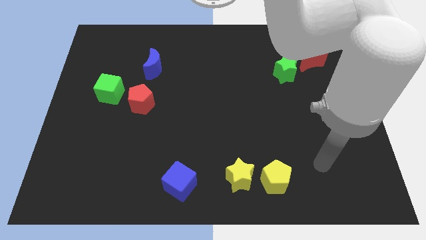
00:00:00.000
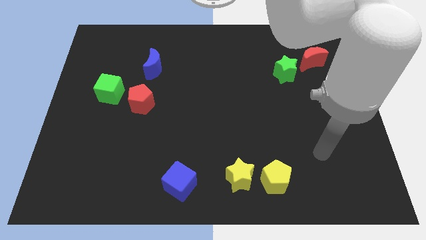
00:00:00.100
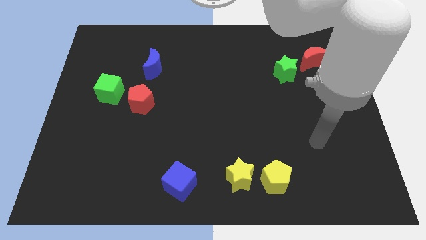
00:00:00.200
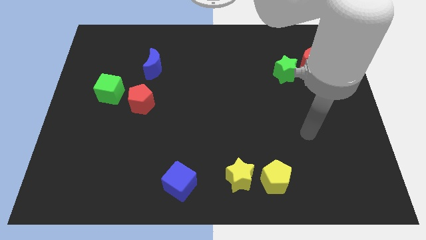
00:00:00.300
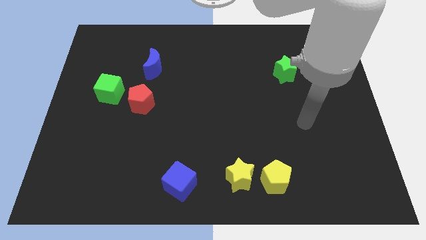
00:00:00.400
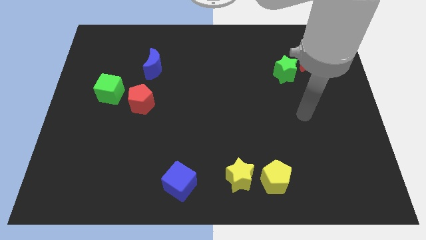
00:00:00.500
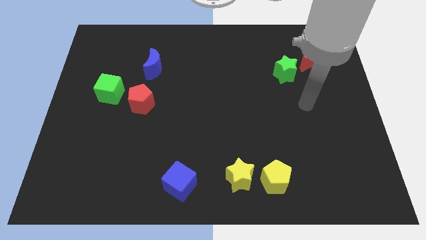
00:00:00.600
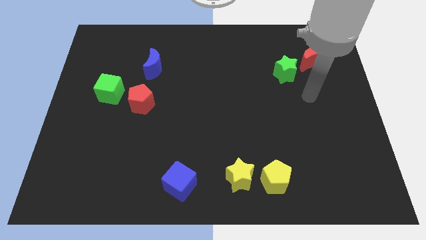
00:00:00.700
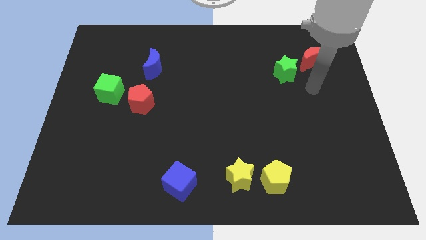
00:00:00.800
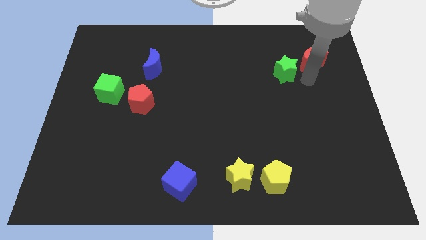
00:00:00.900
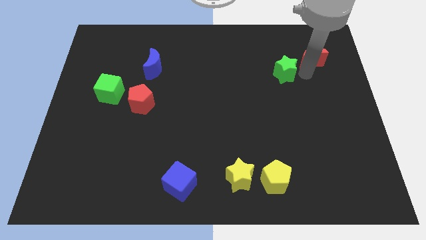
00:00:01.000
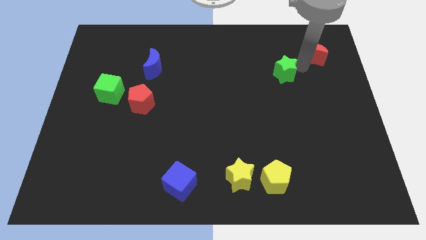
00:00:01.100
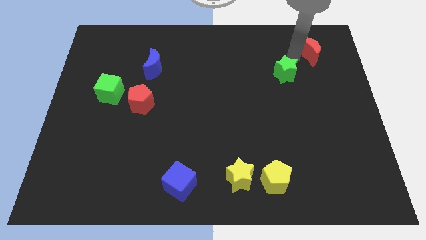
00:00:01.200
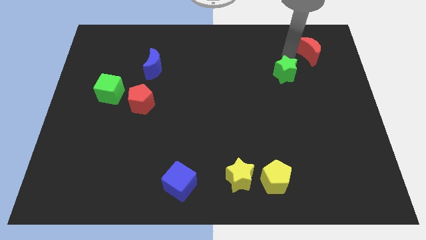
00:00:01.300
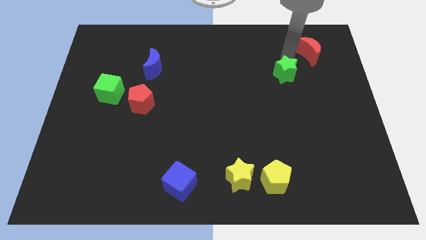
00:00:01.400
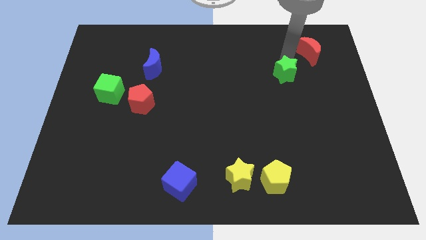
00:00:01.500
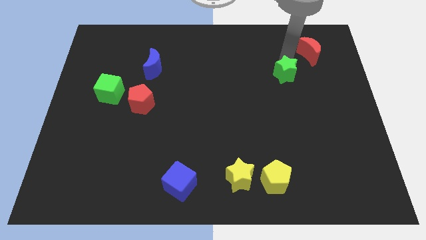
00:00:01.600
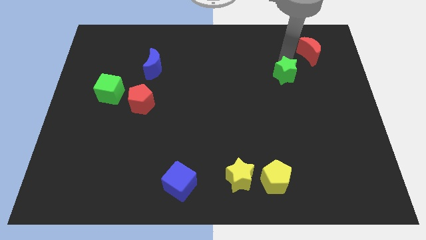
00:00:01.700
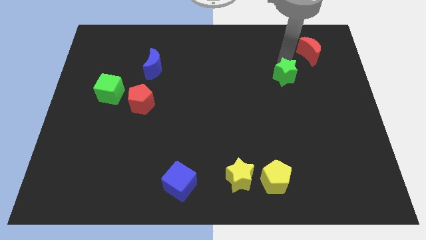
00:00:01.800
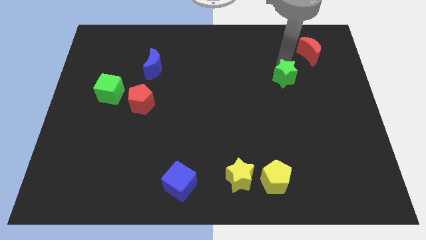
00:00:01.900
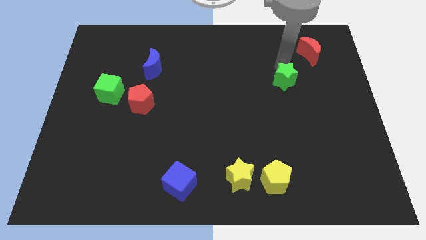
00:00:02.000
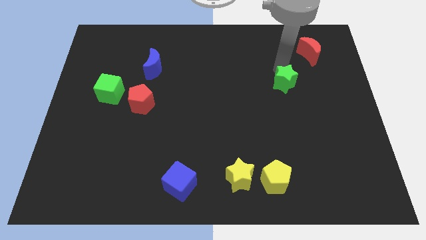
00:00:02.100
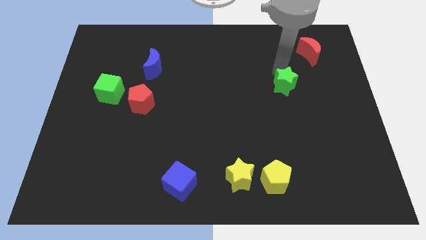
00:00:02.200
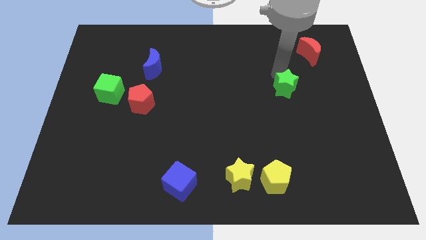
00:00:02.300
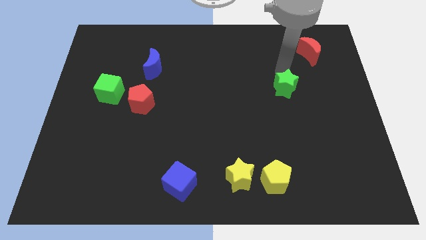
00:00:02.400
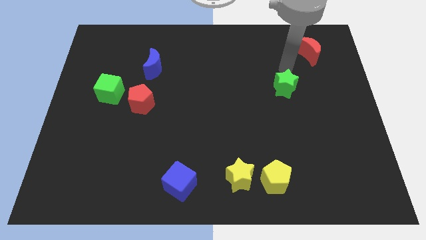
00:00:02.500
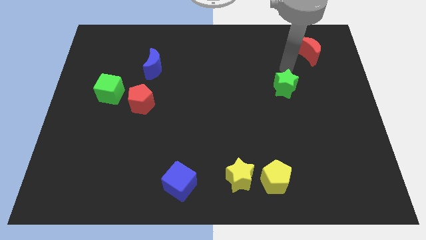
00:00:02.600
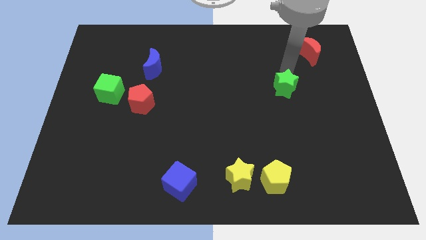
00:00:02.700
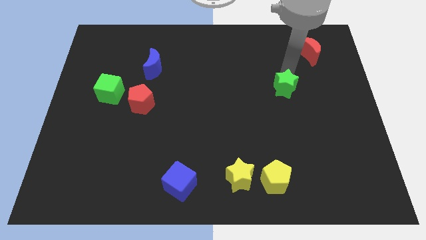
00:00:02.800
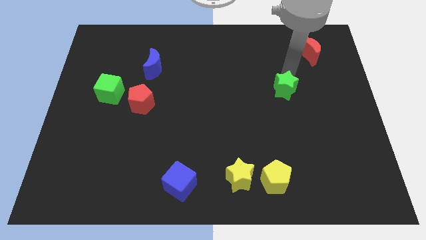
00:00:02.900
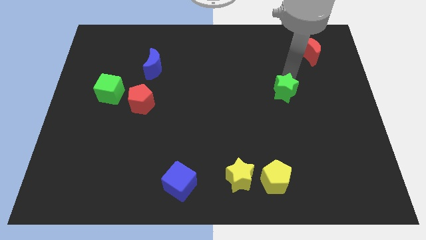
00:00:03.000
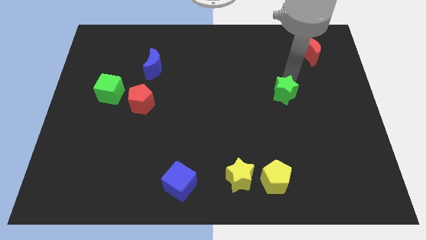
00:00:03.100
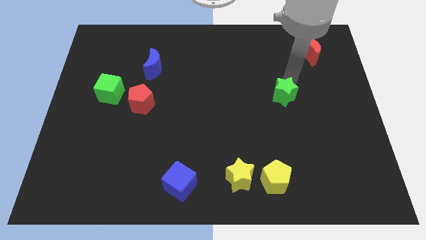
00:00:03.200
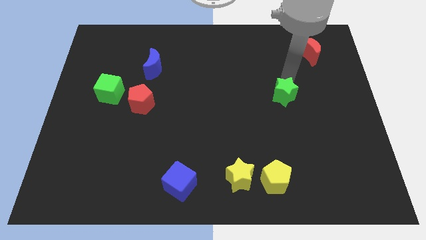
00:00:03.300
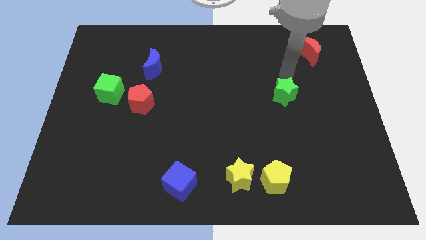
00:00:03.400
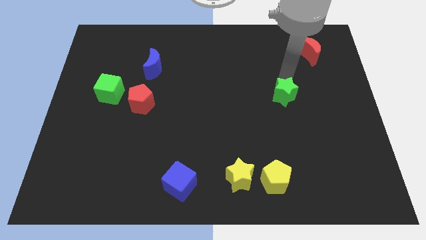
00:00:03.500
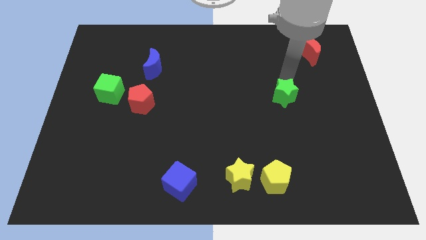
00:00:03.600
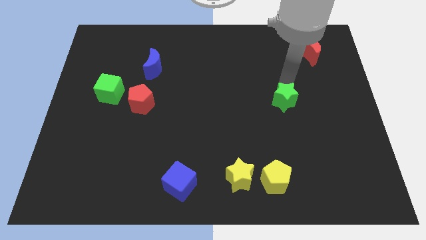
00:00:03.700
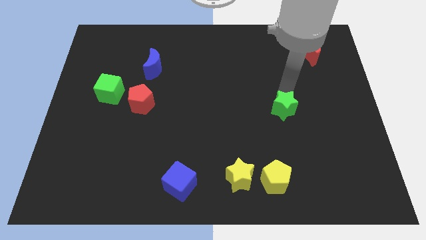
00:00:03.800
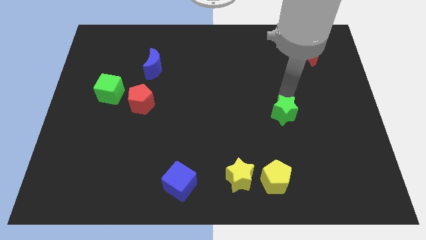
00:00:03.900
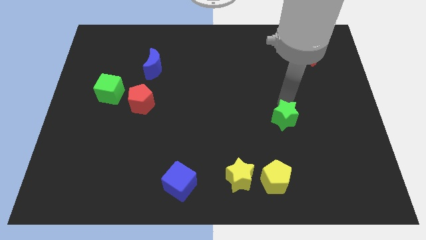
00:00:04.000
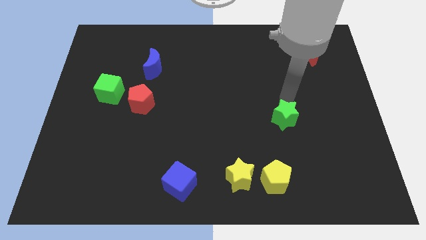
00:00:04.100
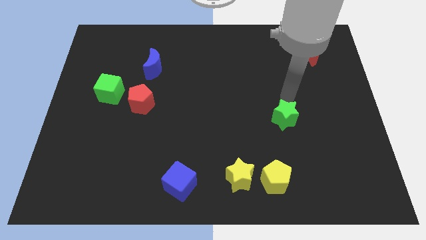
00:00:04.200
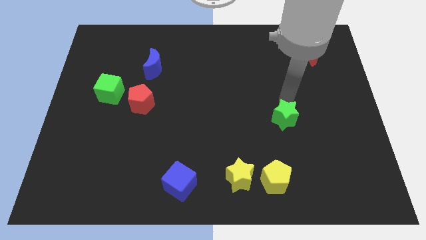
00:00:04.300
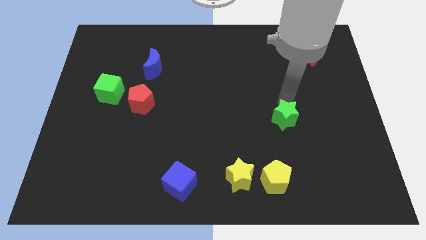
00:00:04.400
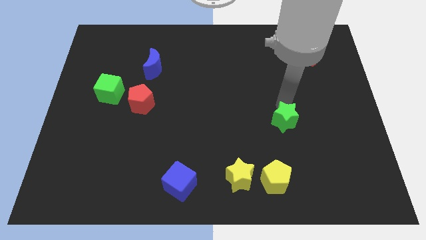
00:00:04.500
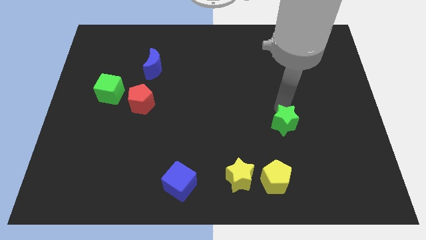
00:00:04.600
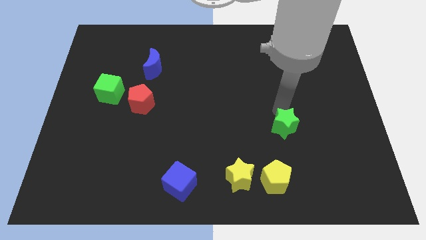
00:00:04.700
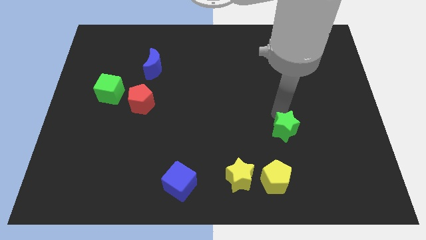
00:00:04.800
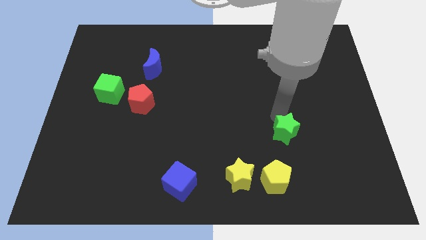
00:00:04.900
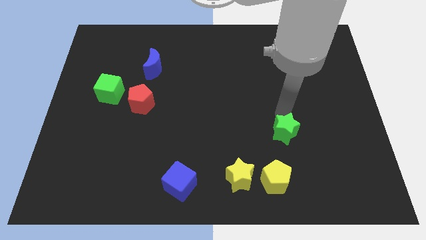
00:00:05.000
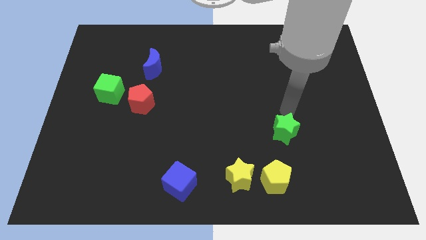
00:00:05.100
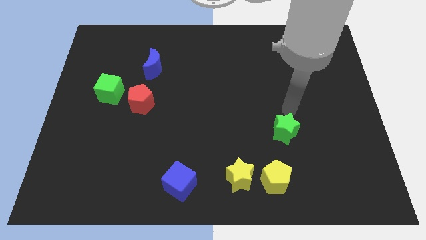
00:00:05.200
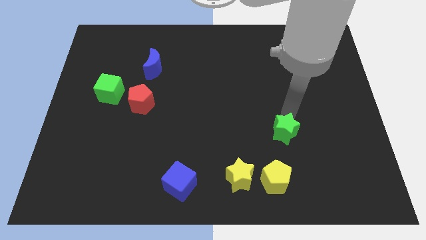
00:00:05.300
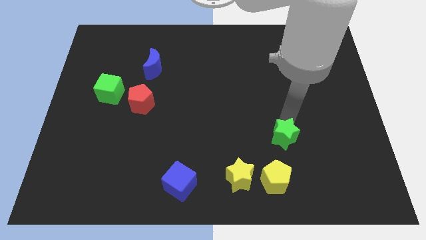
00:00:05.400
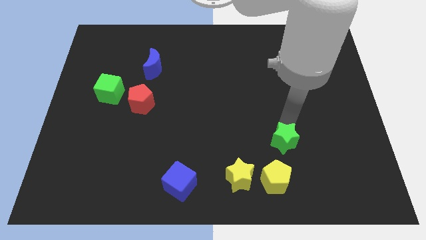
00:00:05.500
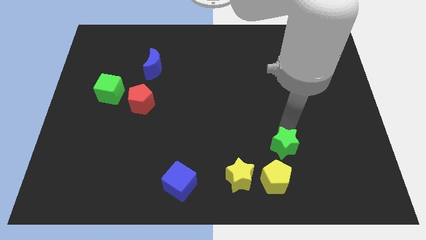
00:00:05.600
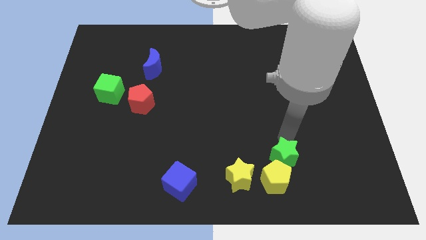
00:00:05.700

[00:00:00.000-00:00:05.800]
slide the green star close to the yellow pentagon

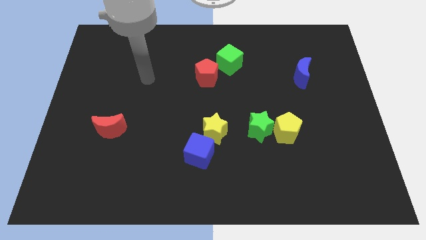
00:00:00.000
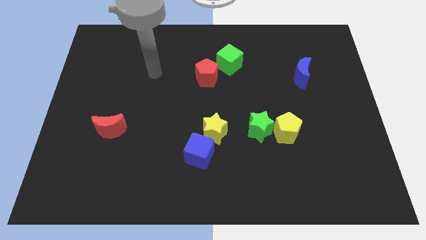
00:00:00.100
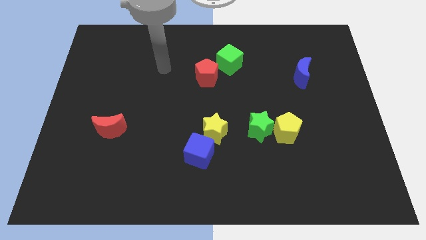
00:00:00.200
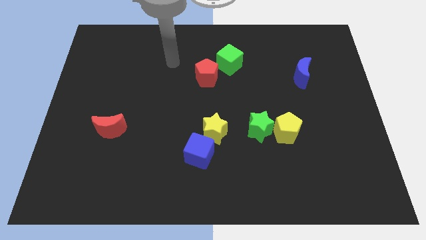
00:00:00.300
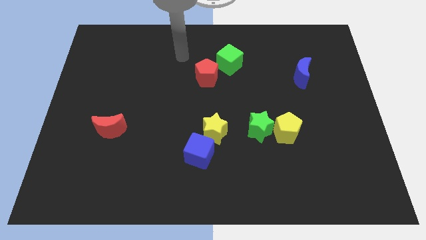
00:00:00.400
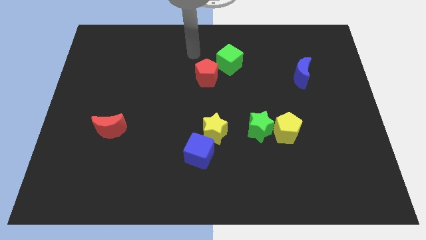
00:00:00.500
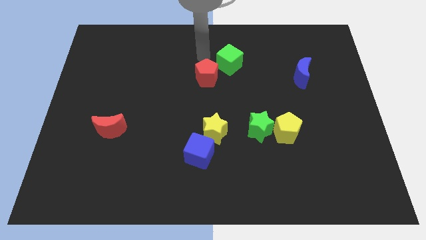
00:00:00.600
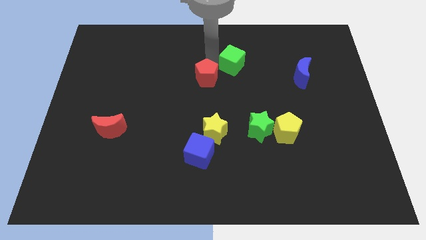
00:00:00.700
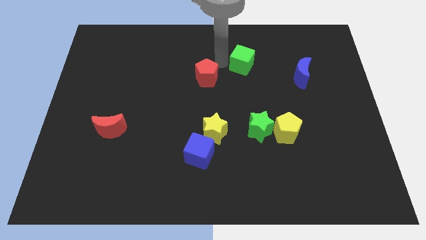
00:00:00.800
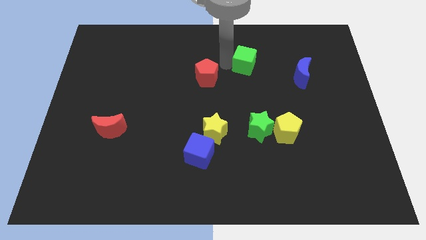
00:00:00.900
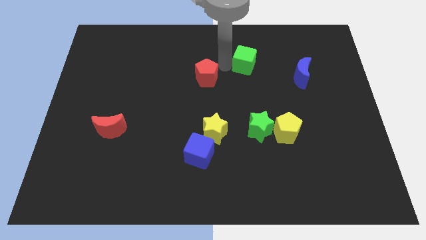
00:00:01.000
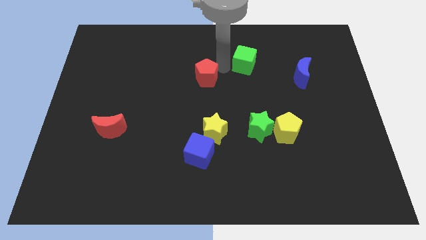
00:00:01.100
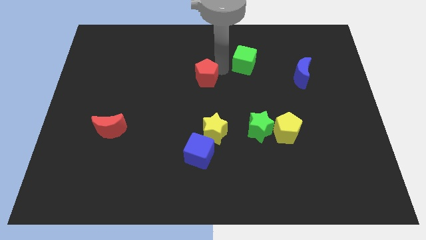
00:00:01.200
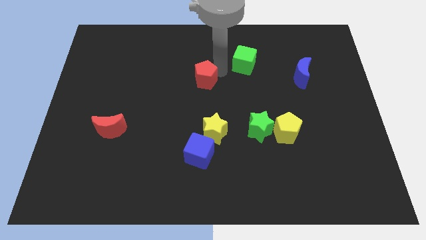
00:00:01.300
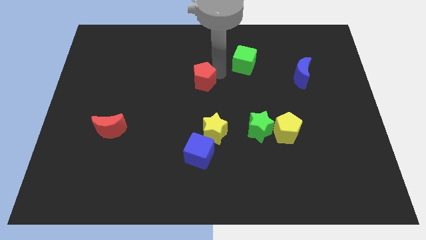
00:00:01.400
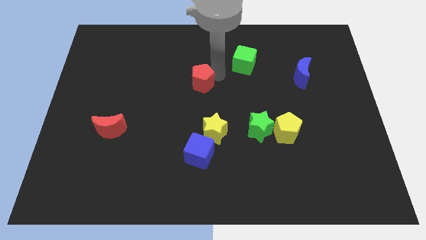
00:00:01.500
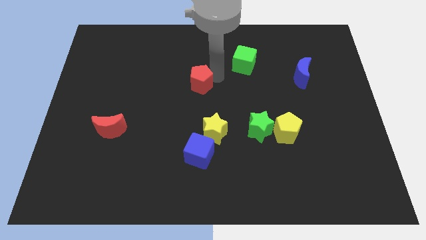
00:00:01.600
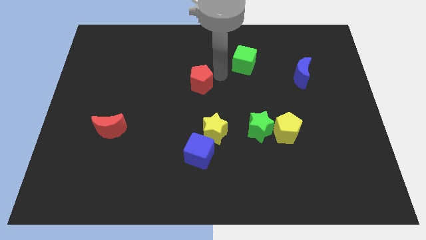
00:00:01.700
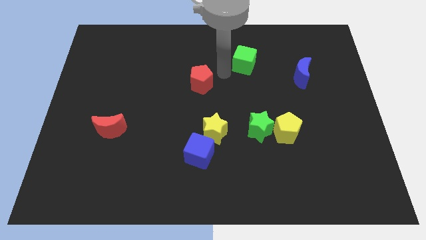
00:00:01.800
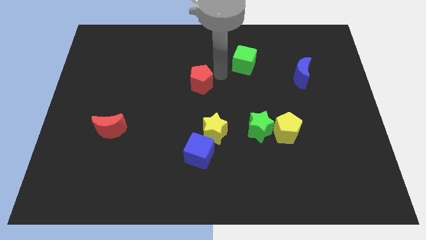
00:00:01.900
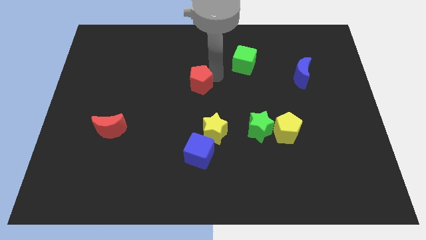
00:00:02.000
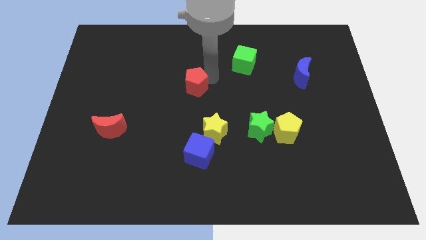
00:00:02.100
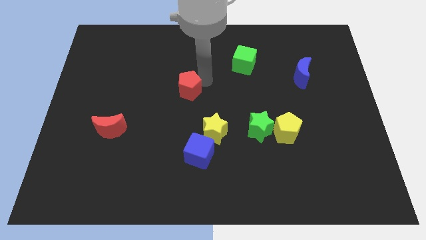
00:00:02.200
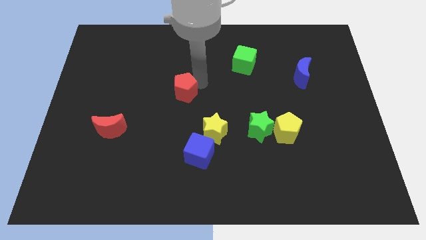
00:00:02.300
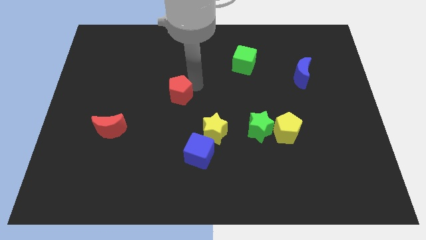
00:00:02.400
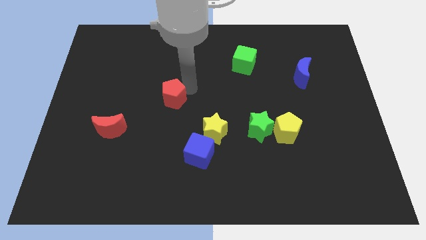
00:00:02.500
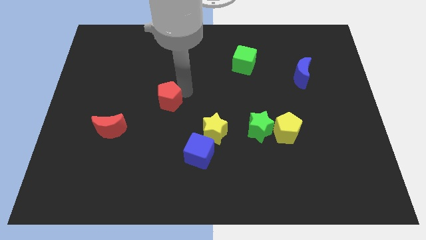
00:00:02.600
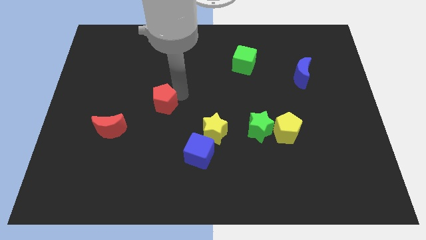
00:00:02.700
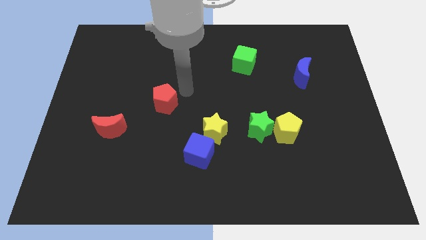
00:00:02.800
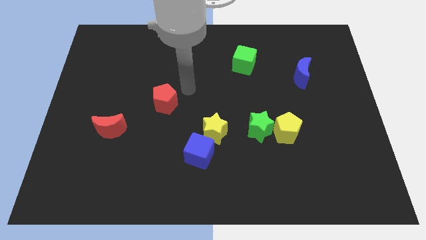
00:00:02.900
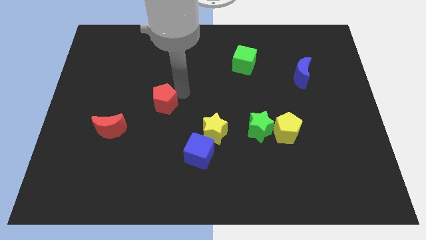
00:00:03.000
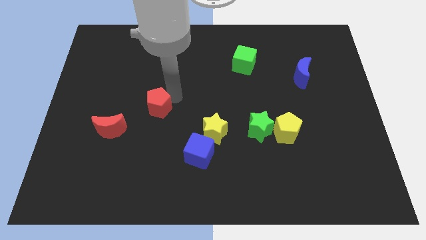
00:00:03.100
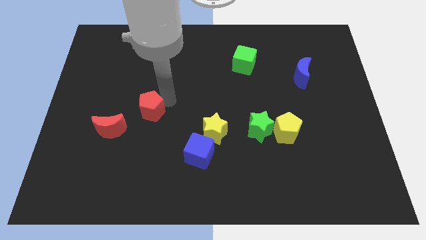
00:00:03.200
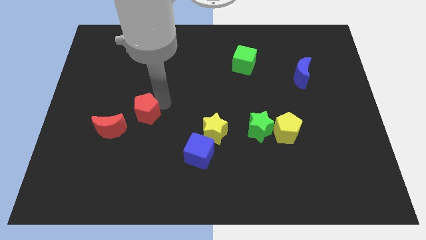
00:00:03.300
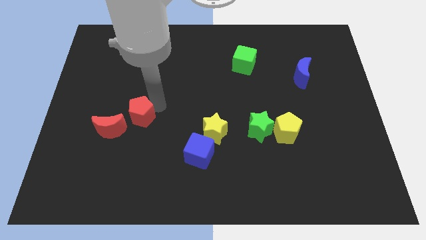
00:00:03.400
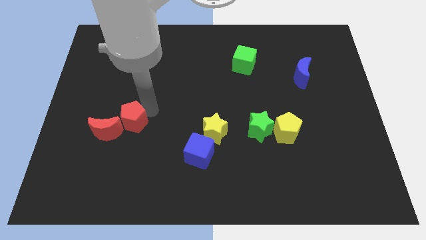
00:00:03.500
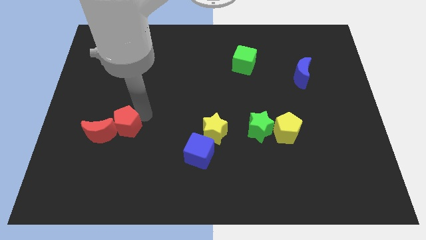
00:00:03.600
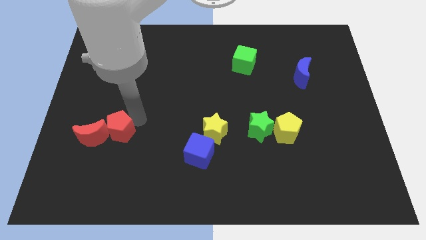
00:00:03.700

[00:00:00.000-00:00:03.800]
move the red pentagon close to the red moon
